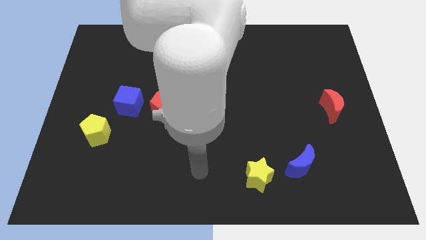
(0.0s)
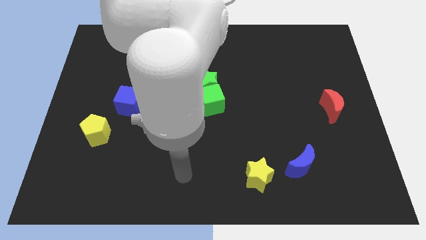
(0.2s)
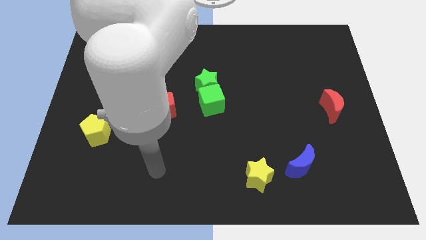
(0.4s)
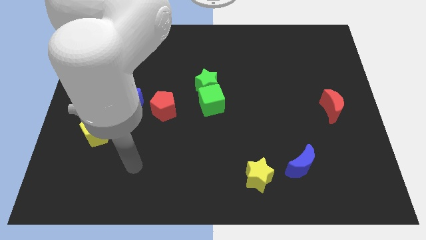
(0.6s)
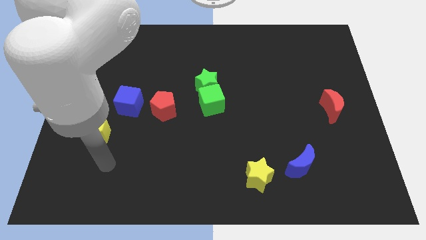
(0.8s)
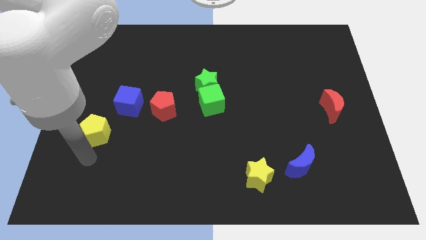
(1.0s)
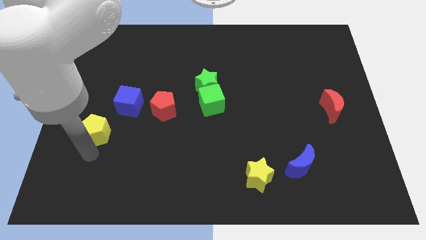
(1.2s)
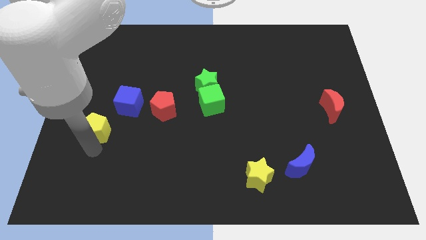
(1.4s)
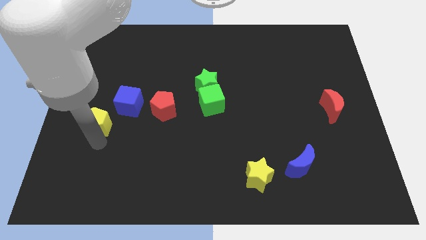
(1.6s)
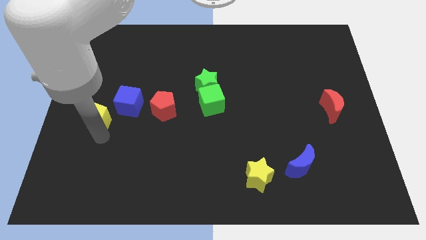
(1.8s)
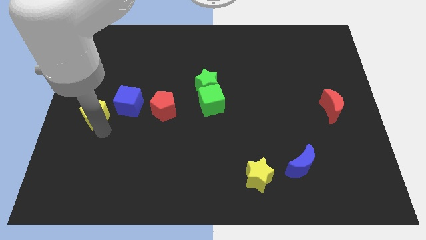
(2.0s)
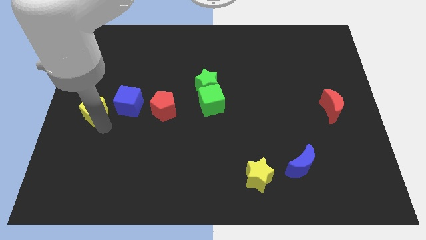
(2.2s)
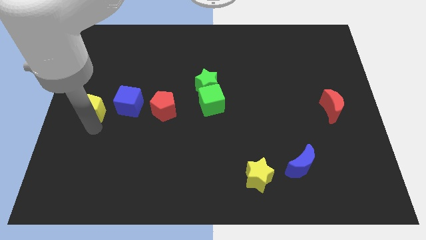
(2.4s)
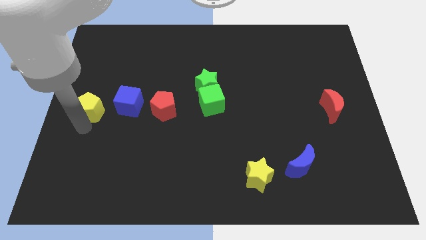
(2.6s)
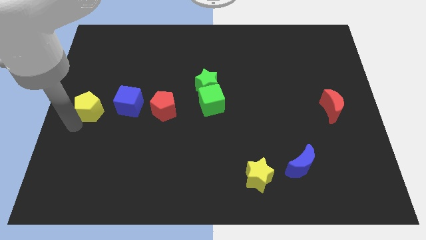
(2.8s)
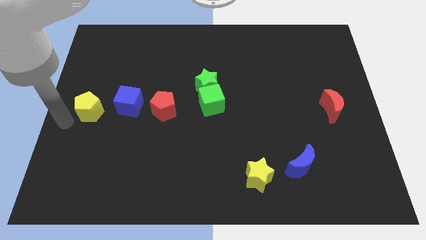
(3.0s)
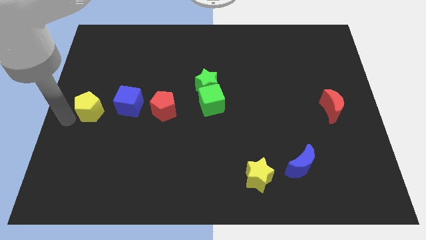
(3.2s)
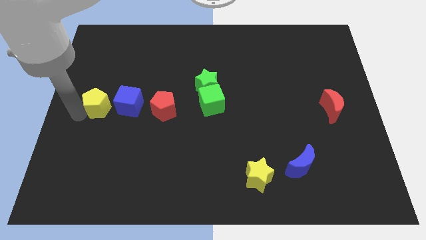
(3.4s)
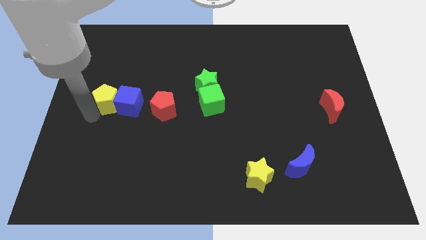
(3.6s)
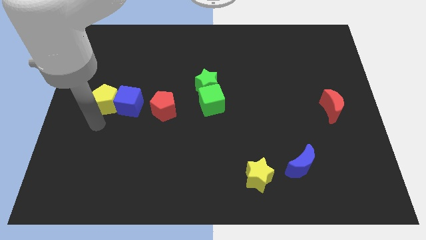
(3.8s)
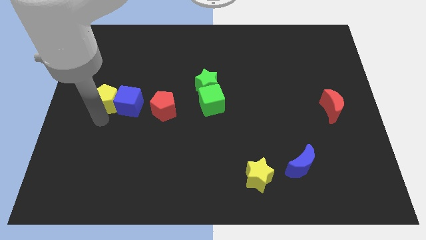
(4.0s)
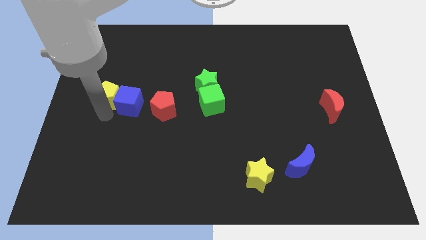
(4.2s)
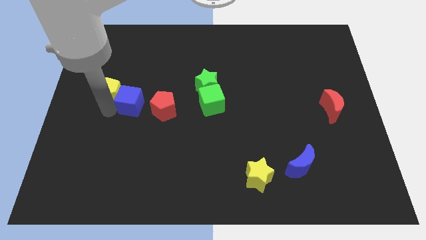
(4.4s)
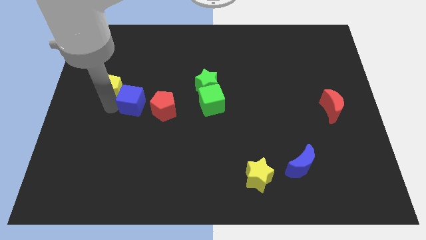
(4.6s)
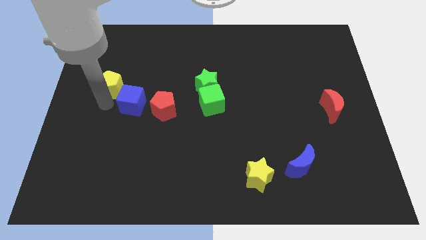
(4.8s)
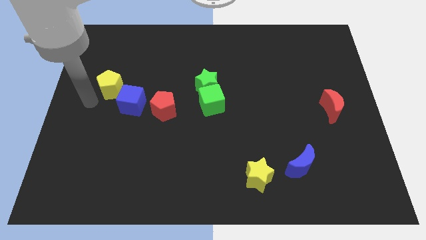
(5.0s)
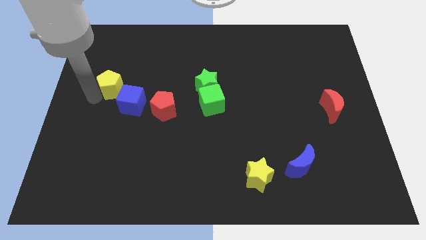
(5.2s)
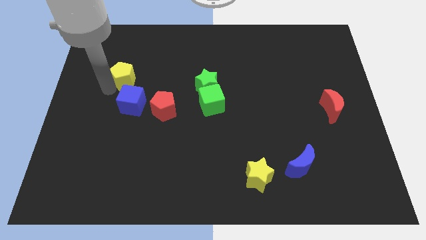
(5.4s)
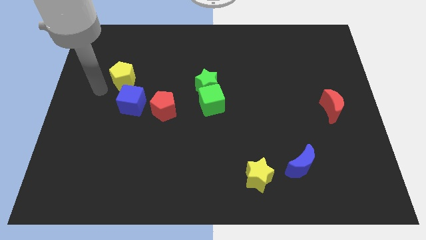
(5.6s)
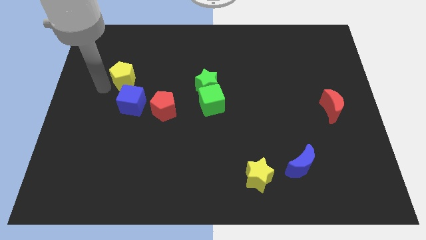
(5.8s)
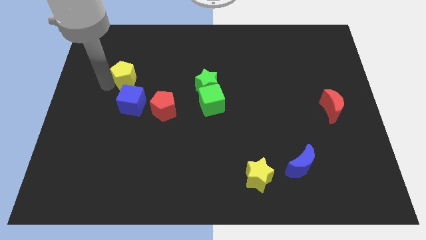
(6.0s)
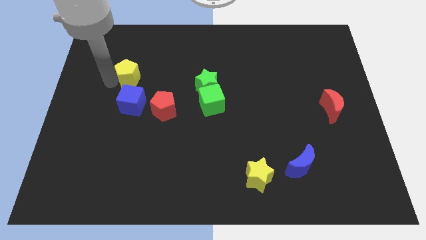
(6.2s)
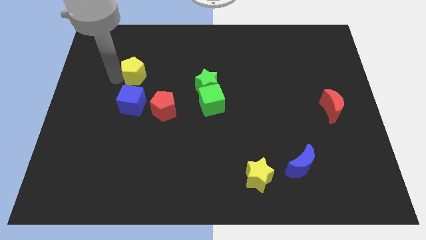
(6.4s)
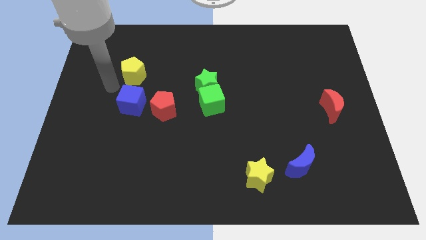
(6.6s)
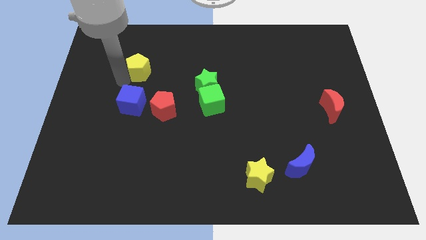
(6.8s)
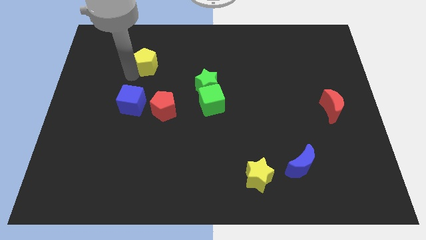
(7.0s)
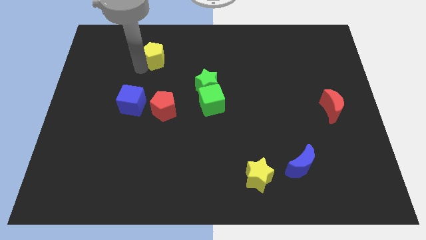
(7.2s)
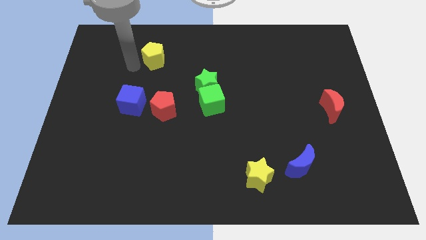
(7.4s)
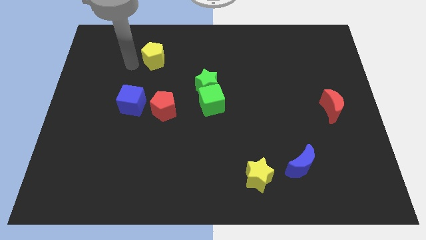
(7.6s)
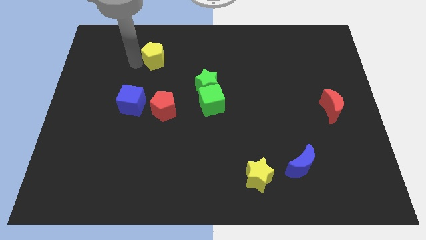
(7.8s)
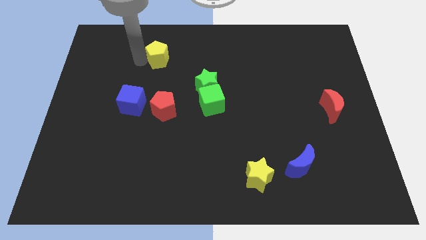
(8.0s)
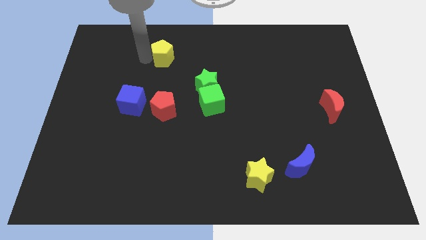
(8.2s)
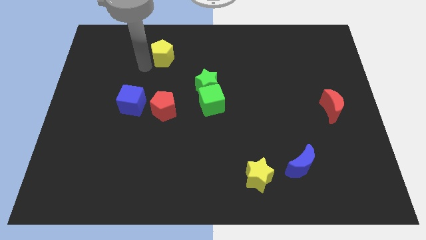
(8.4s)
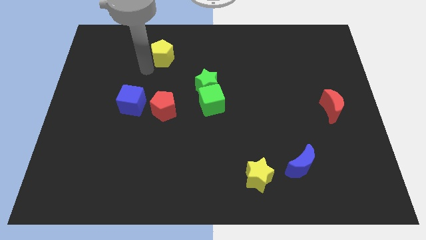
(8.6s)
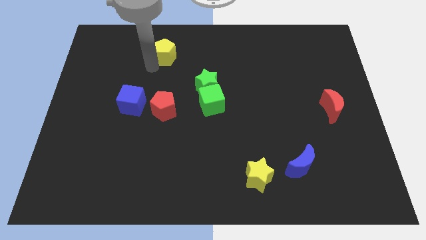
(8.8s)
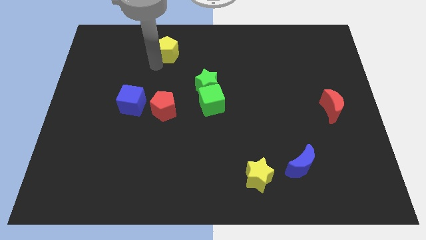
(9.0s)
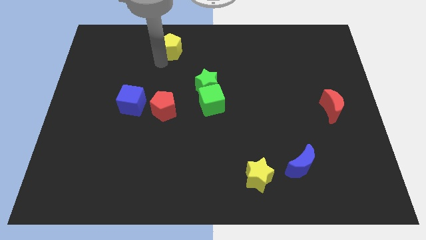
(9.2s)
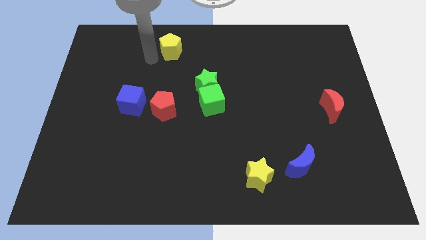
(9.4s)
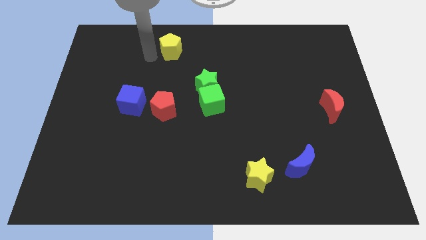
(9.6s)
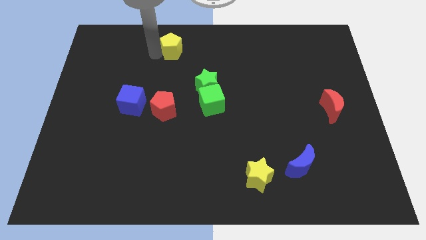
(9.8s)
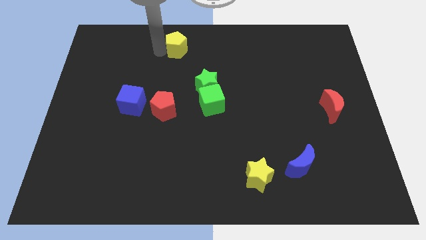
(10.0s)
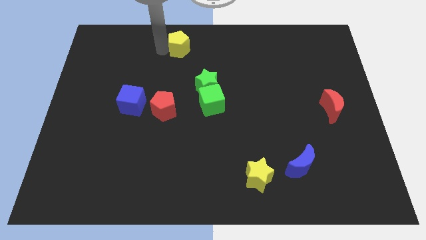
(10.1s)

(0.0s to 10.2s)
push the yellow pentagon to the top

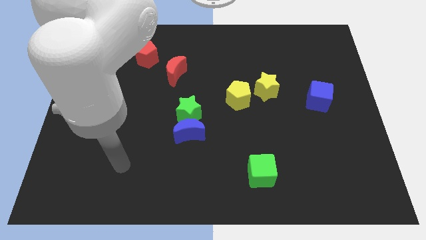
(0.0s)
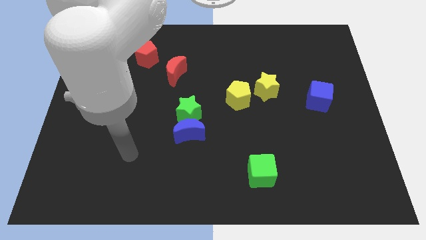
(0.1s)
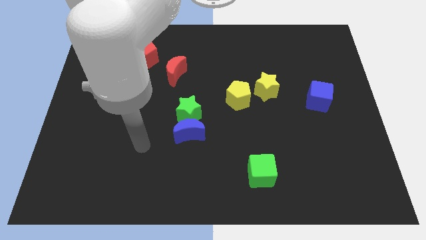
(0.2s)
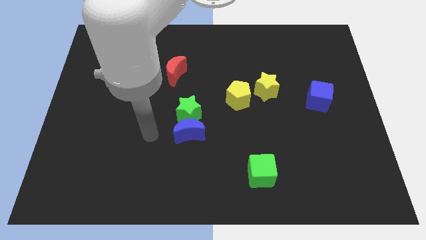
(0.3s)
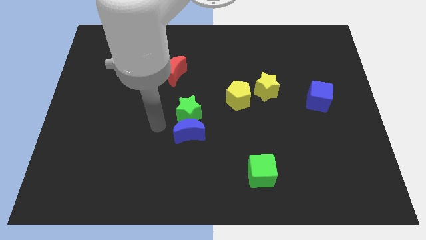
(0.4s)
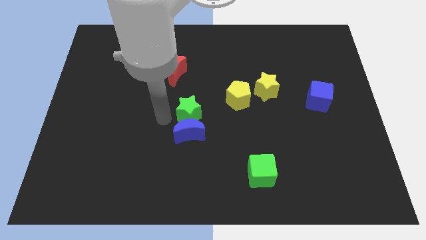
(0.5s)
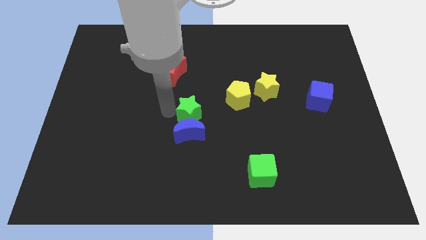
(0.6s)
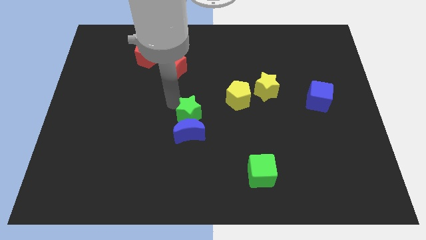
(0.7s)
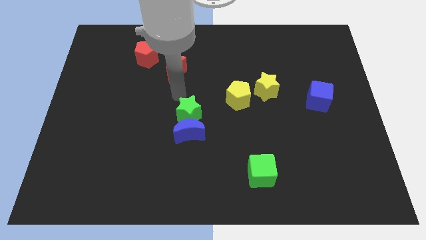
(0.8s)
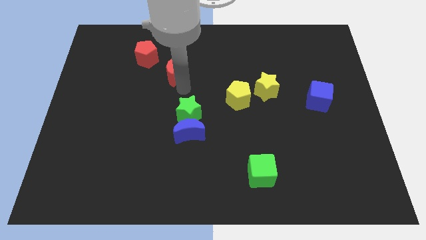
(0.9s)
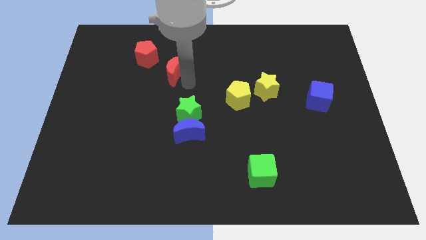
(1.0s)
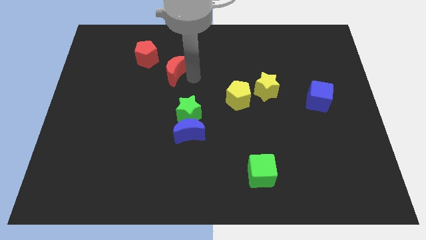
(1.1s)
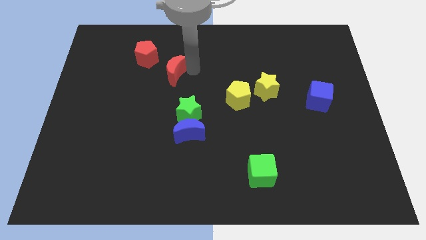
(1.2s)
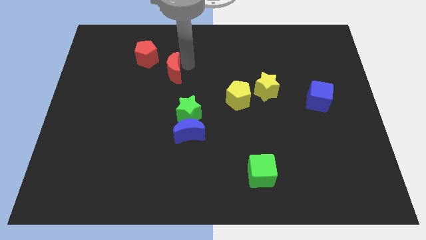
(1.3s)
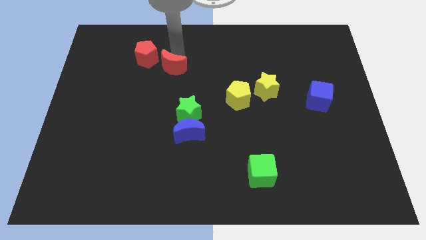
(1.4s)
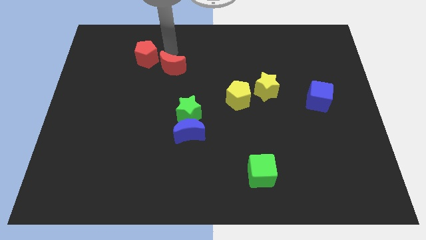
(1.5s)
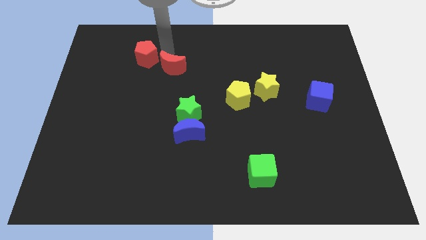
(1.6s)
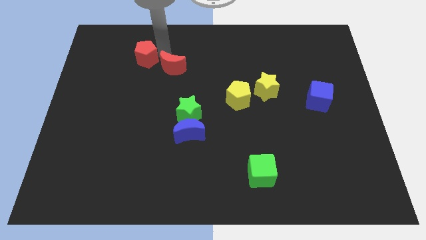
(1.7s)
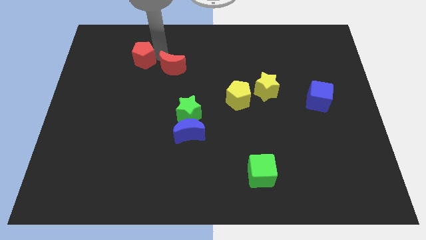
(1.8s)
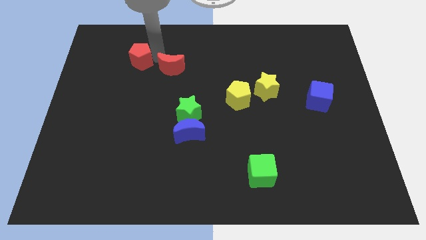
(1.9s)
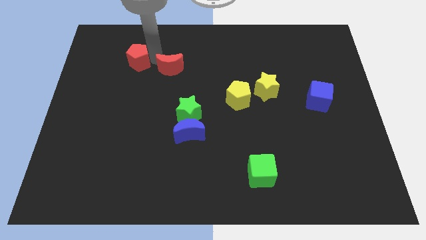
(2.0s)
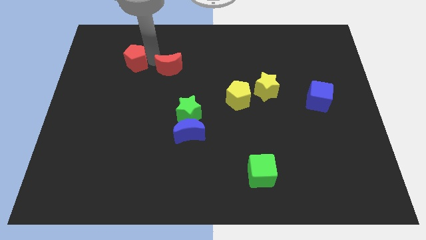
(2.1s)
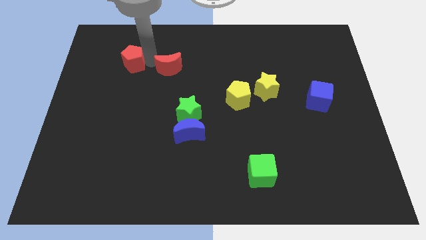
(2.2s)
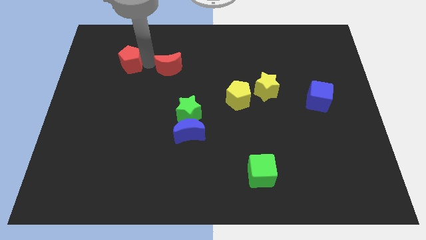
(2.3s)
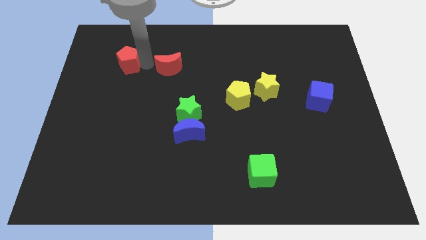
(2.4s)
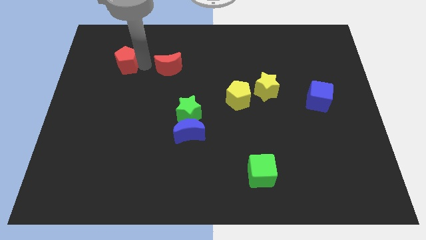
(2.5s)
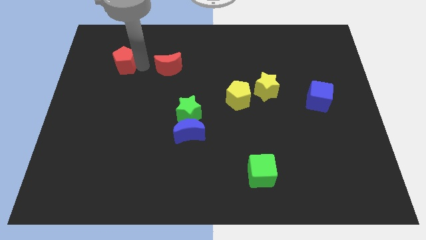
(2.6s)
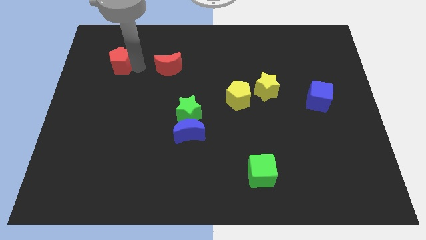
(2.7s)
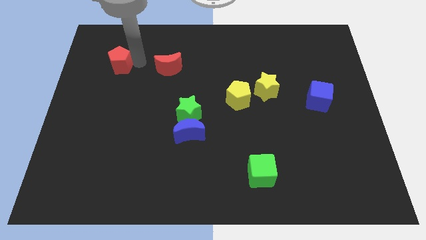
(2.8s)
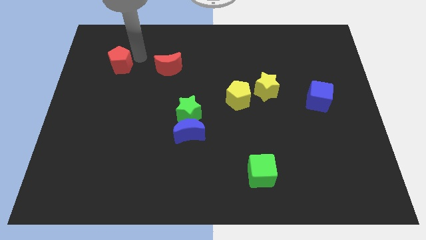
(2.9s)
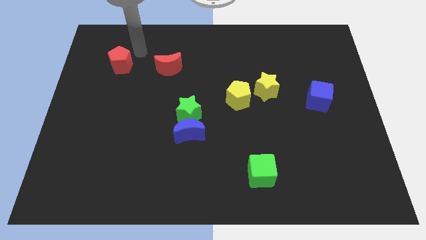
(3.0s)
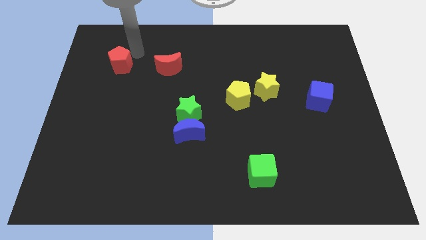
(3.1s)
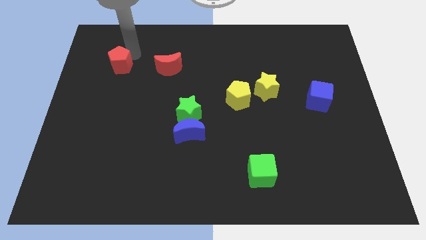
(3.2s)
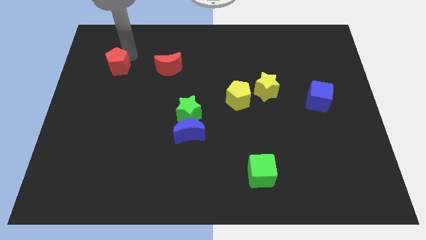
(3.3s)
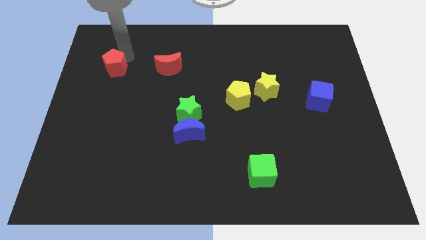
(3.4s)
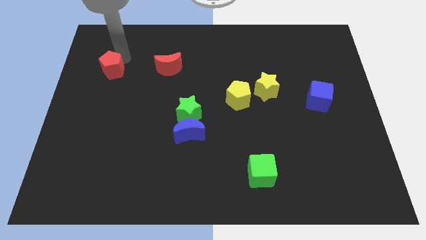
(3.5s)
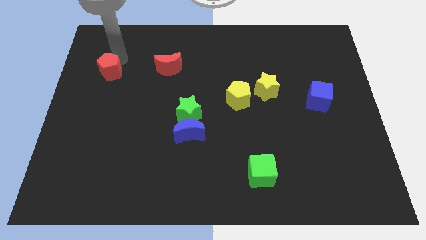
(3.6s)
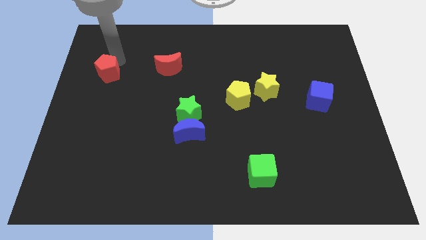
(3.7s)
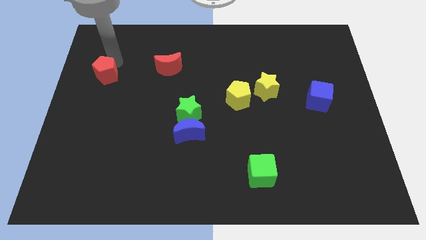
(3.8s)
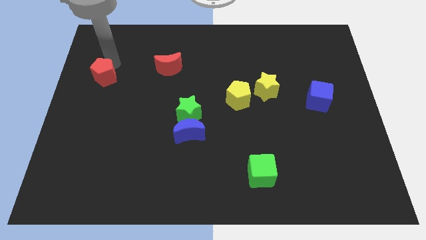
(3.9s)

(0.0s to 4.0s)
move the red pentagon to the left side
